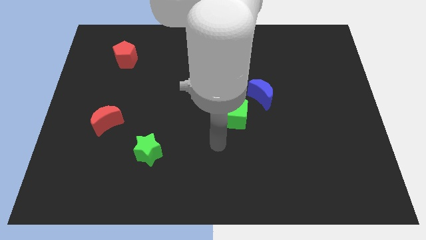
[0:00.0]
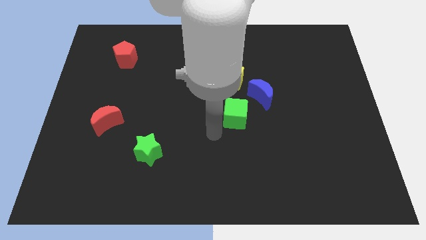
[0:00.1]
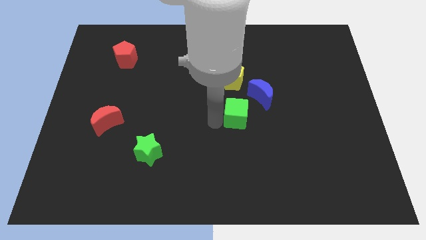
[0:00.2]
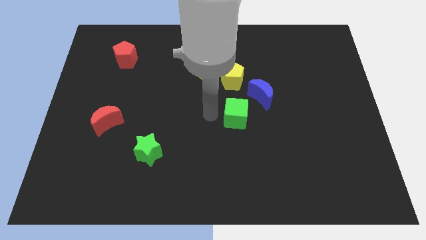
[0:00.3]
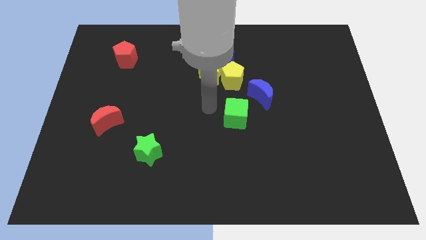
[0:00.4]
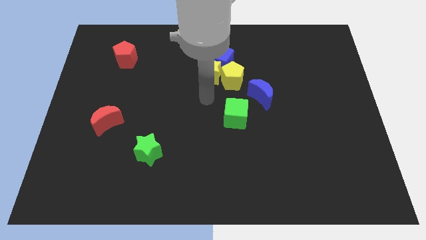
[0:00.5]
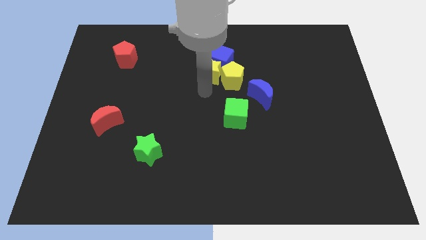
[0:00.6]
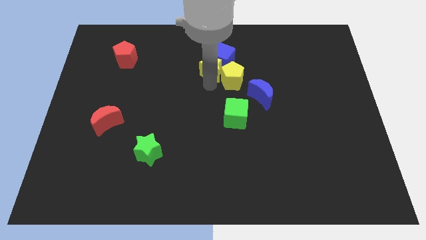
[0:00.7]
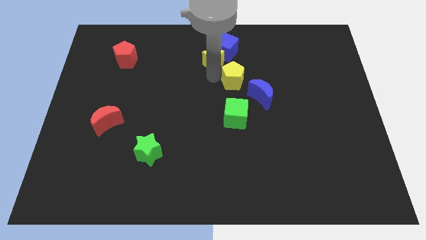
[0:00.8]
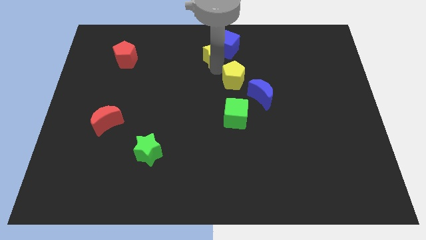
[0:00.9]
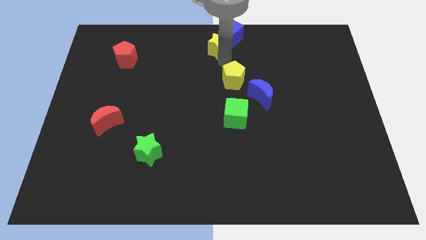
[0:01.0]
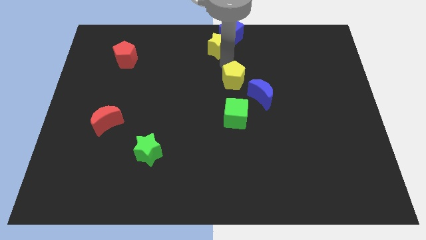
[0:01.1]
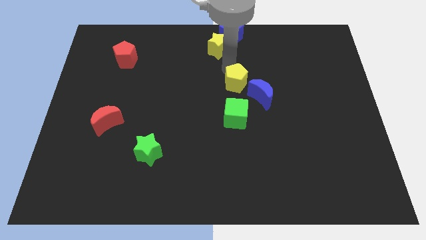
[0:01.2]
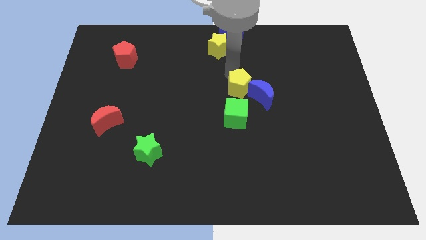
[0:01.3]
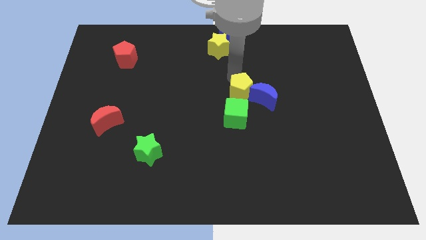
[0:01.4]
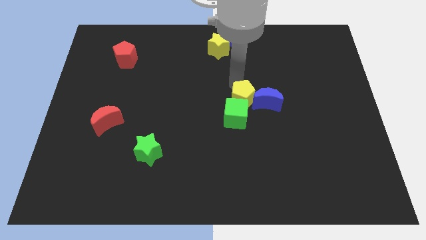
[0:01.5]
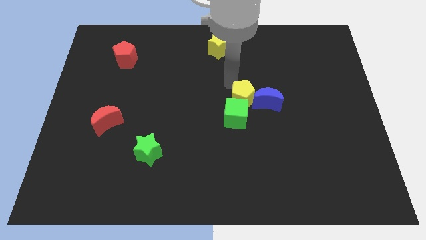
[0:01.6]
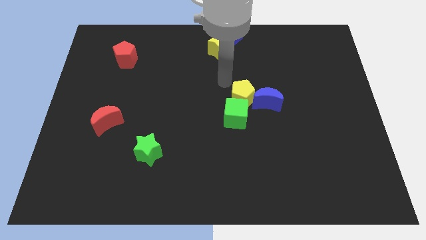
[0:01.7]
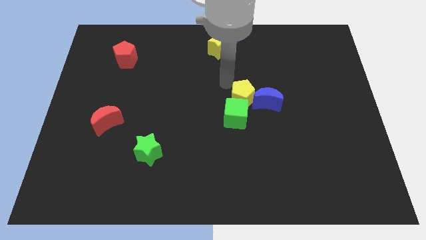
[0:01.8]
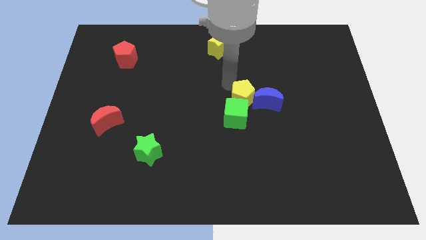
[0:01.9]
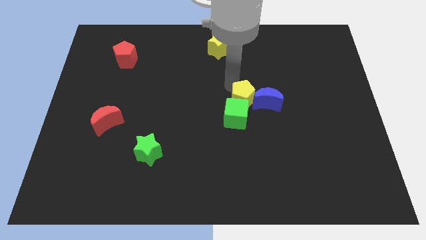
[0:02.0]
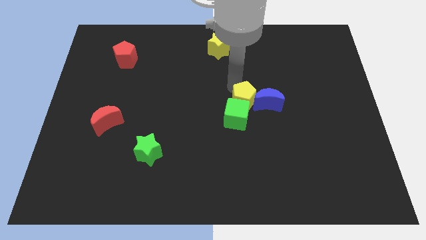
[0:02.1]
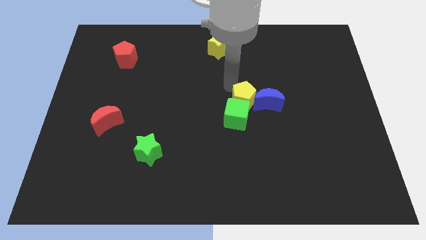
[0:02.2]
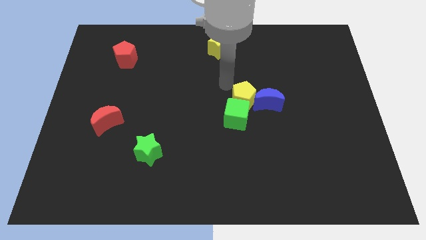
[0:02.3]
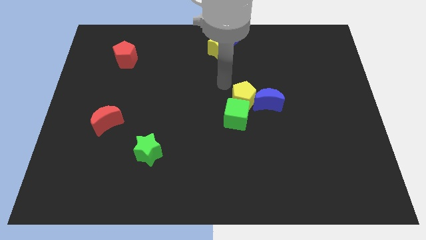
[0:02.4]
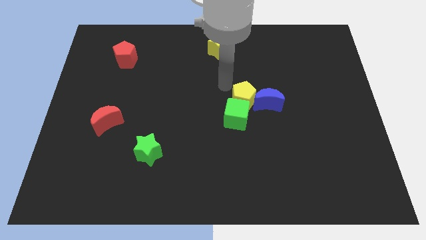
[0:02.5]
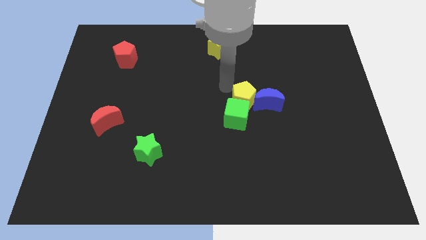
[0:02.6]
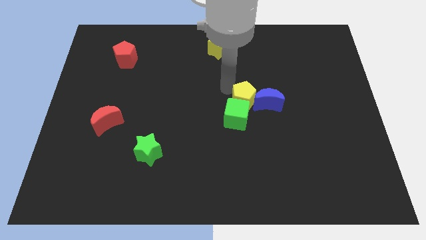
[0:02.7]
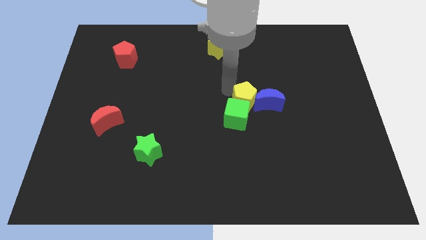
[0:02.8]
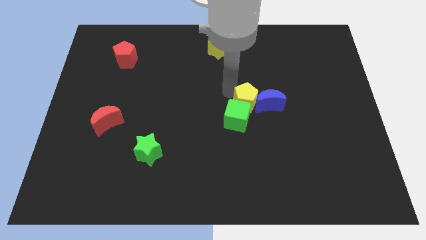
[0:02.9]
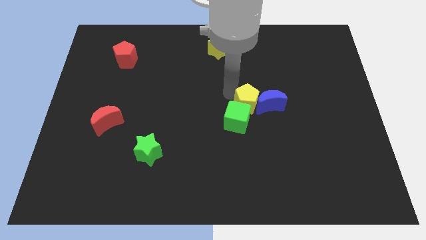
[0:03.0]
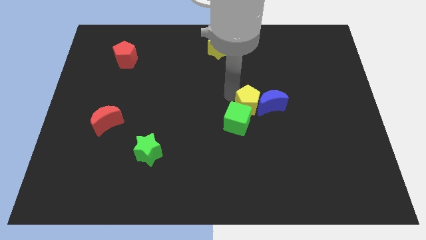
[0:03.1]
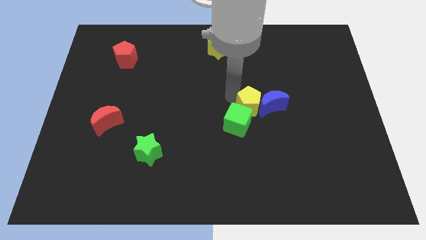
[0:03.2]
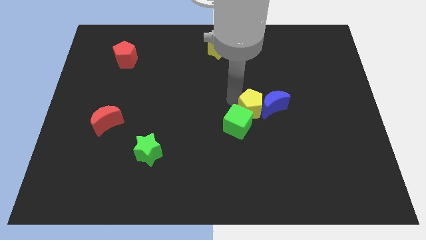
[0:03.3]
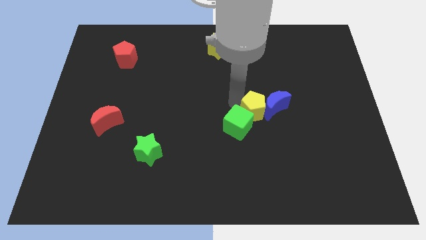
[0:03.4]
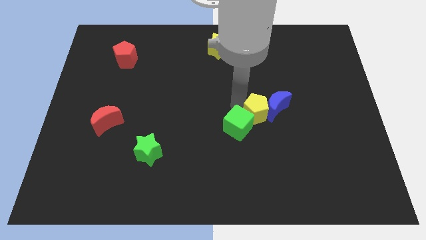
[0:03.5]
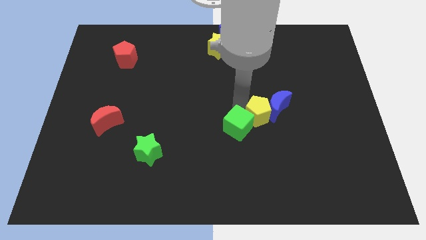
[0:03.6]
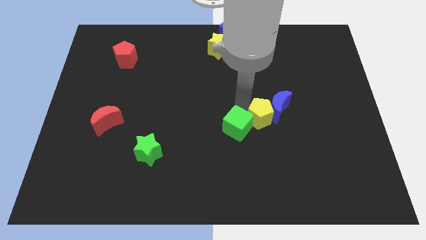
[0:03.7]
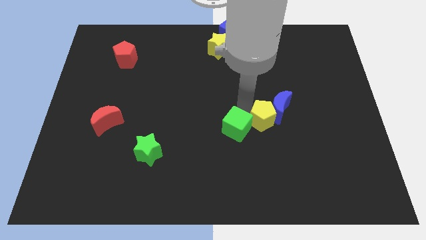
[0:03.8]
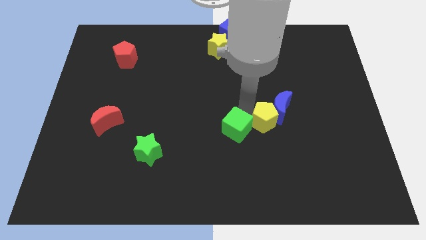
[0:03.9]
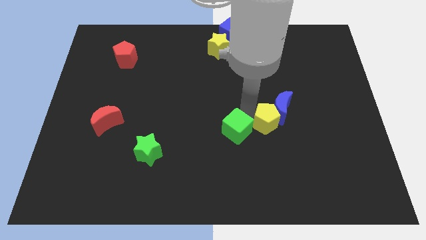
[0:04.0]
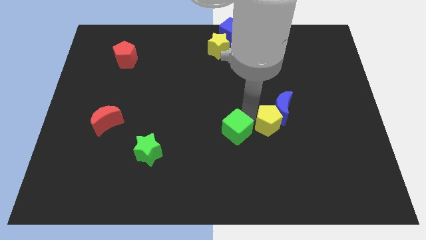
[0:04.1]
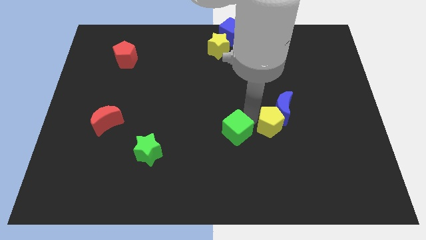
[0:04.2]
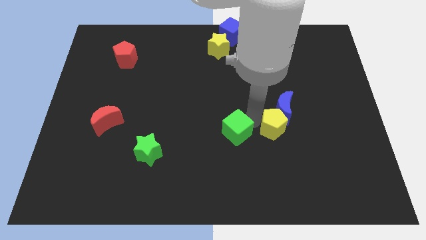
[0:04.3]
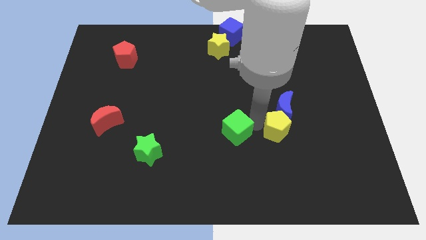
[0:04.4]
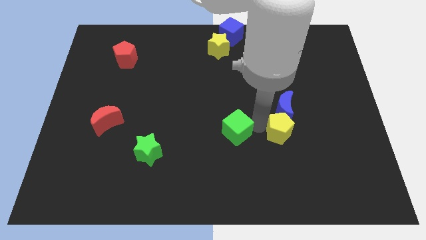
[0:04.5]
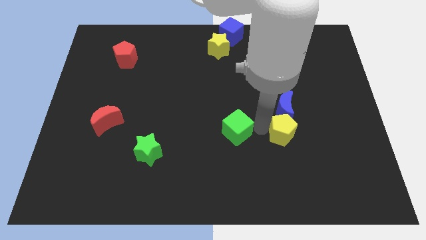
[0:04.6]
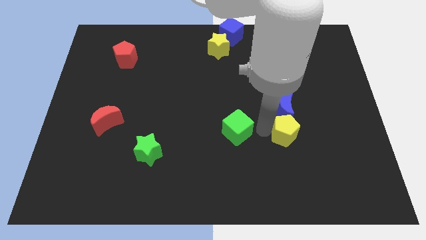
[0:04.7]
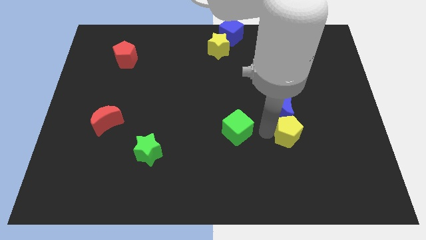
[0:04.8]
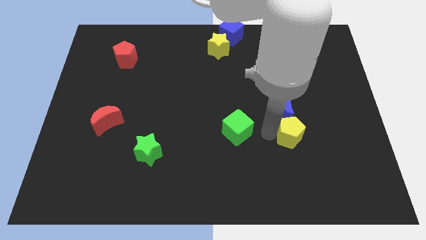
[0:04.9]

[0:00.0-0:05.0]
move the yellow pentagon downwards and then right

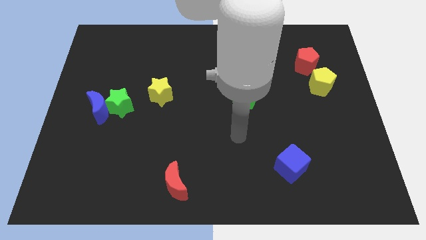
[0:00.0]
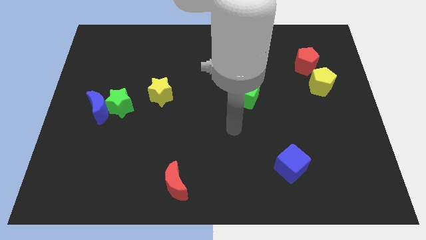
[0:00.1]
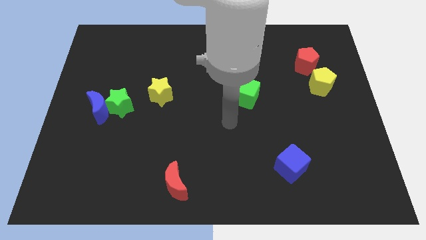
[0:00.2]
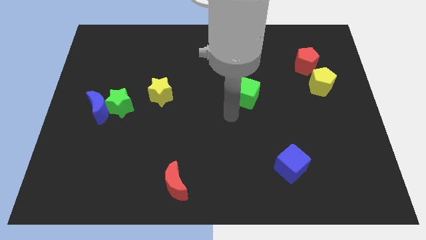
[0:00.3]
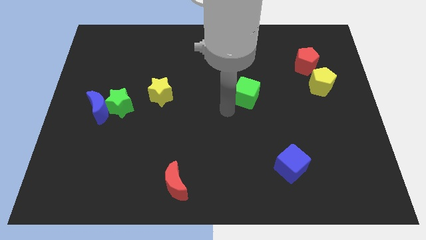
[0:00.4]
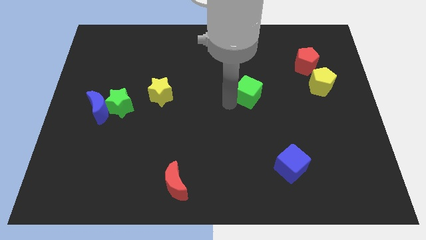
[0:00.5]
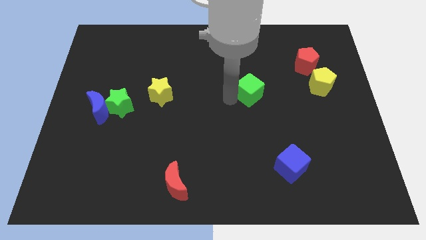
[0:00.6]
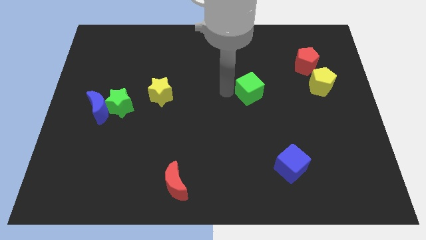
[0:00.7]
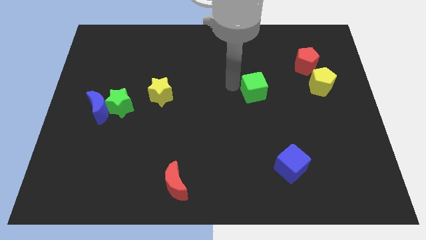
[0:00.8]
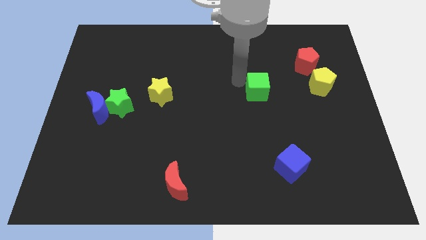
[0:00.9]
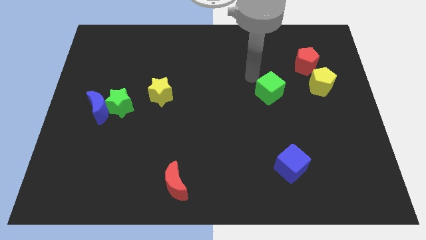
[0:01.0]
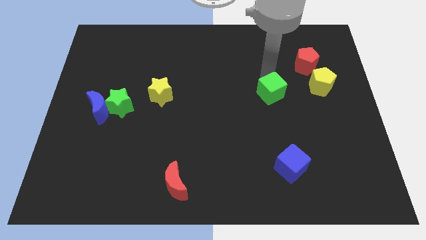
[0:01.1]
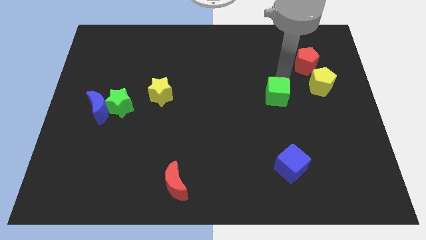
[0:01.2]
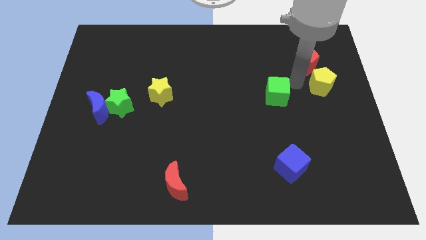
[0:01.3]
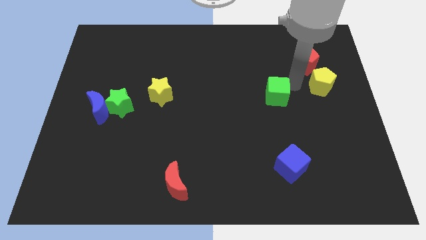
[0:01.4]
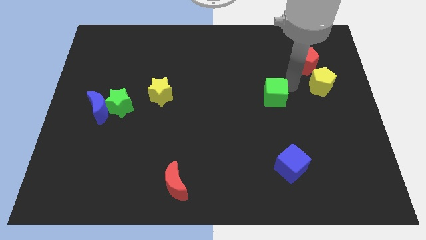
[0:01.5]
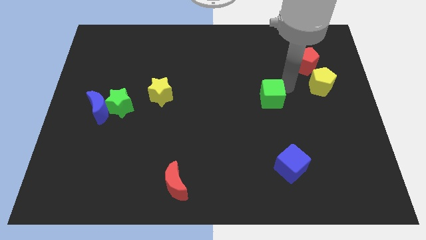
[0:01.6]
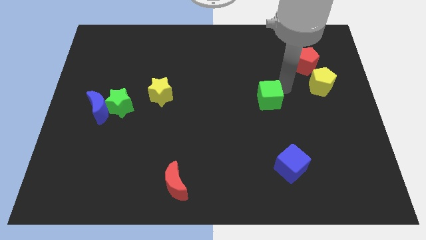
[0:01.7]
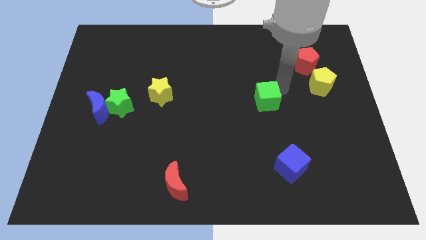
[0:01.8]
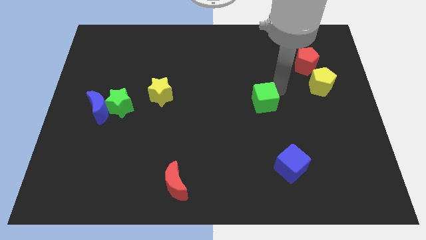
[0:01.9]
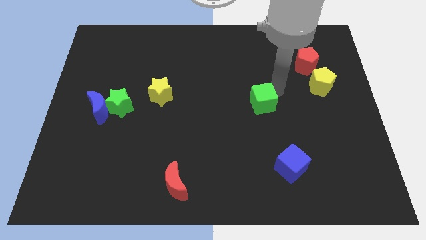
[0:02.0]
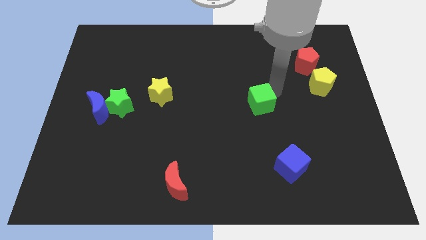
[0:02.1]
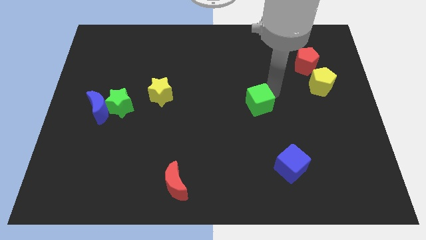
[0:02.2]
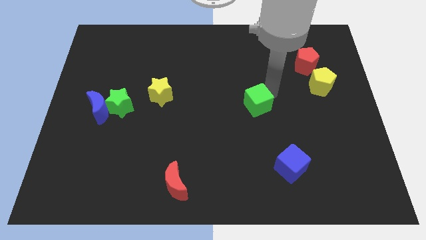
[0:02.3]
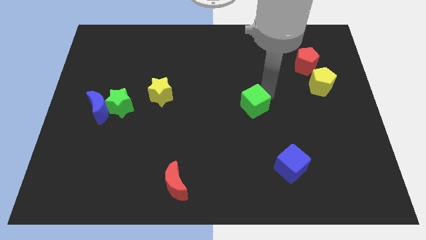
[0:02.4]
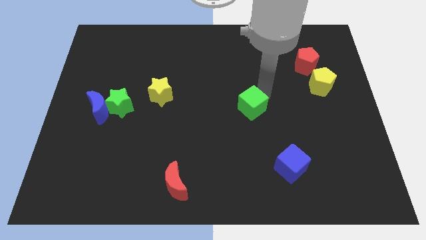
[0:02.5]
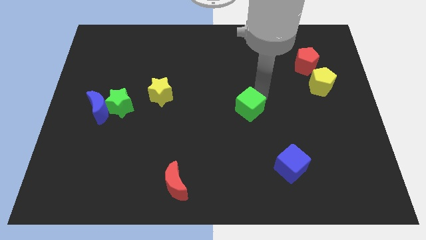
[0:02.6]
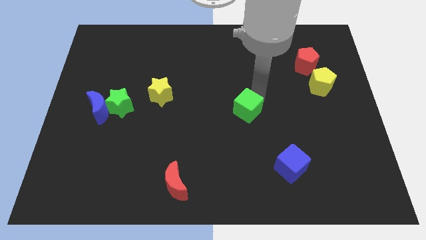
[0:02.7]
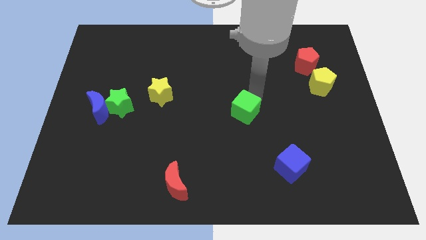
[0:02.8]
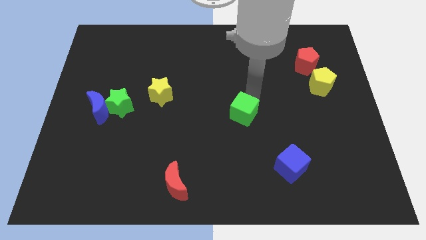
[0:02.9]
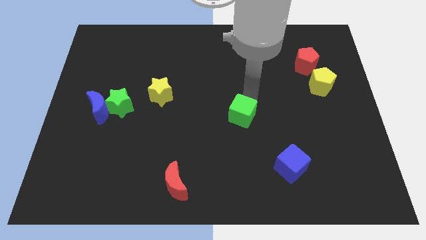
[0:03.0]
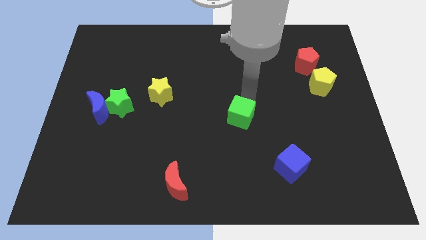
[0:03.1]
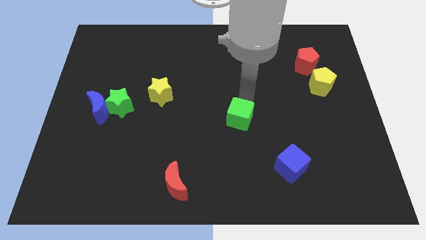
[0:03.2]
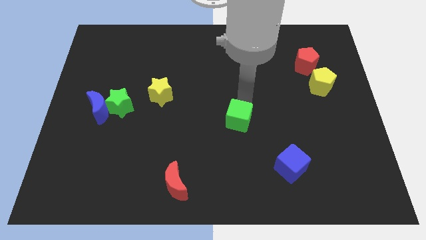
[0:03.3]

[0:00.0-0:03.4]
move the green cube a little bit down
